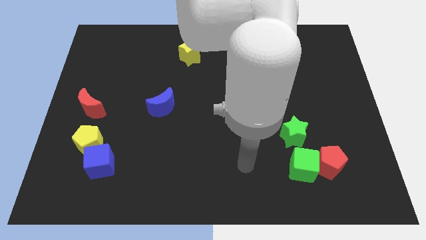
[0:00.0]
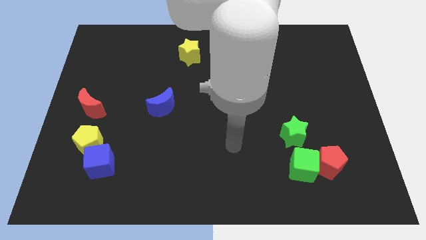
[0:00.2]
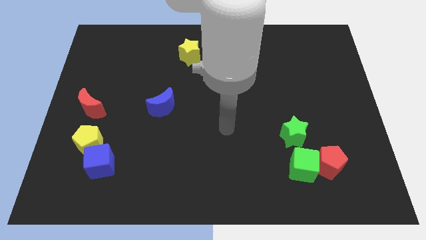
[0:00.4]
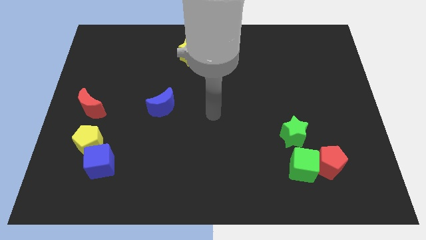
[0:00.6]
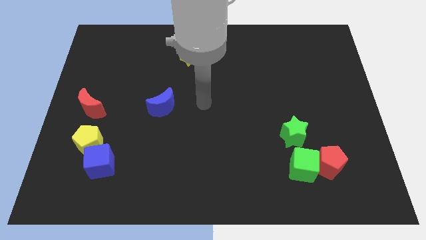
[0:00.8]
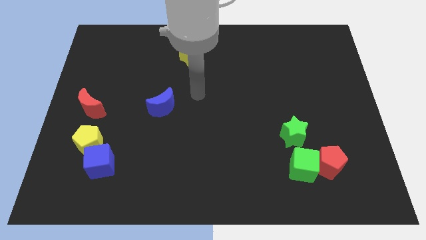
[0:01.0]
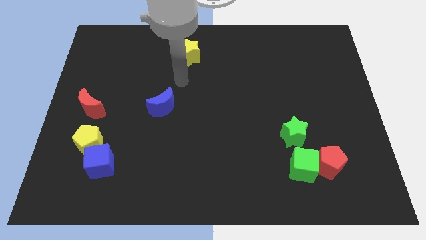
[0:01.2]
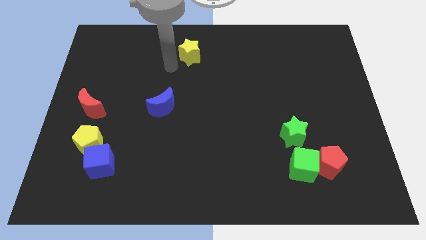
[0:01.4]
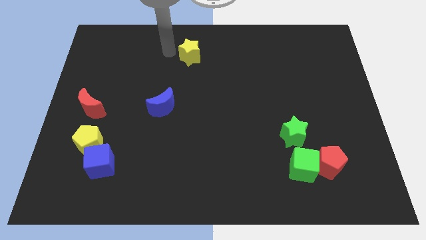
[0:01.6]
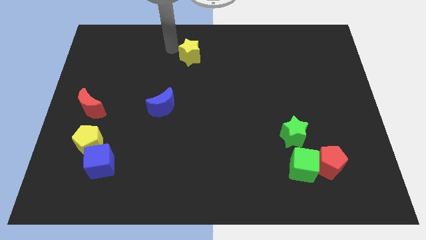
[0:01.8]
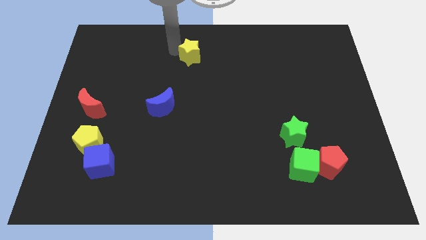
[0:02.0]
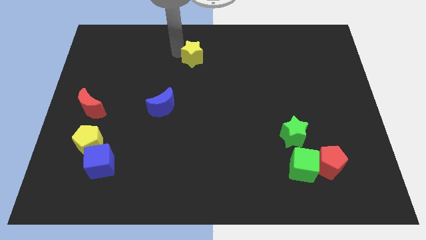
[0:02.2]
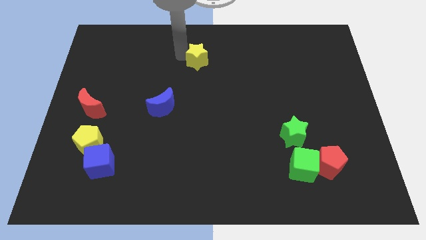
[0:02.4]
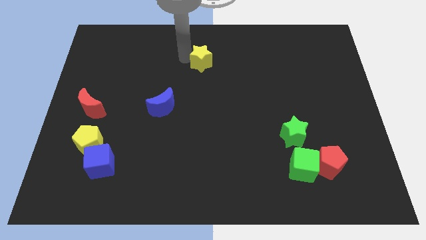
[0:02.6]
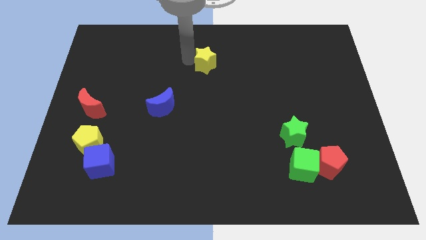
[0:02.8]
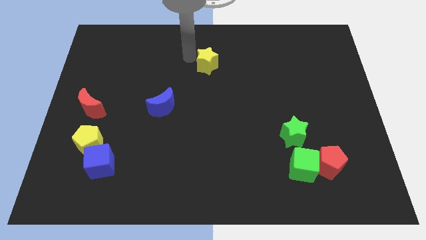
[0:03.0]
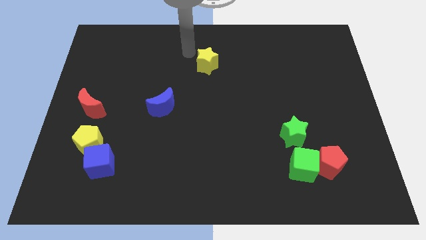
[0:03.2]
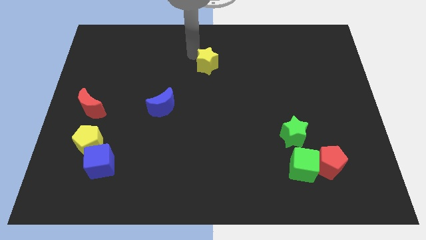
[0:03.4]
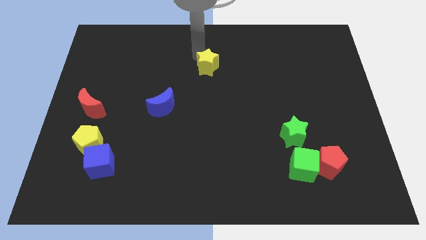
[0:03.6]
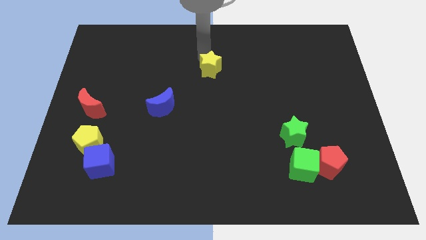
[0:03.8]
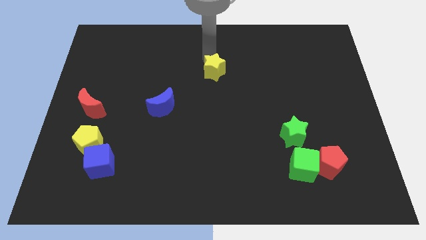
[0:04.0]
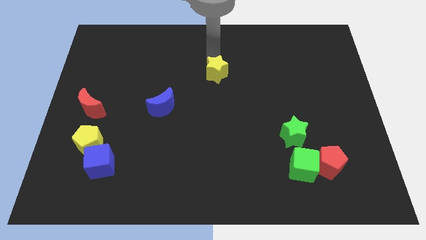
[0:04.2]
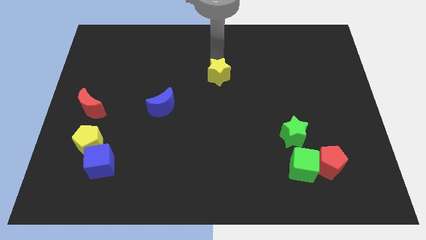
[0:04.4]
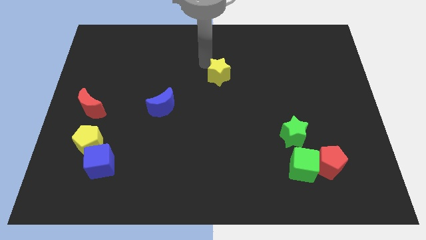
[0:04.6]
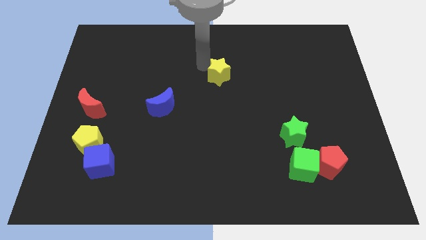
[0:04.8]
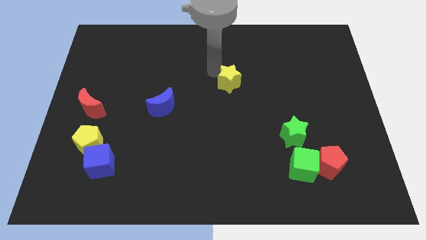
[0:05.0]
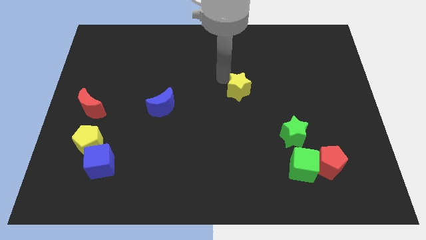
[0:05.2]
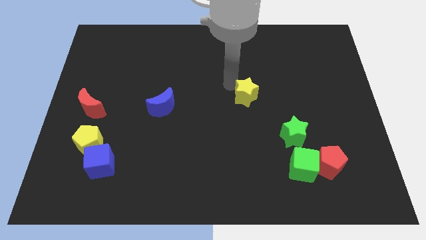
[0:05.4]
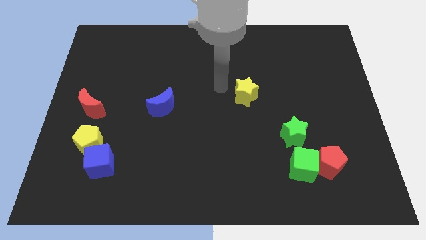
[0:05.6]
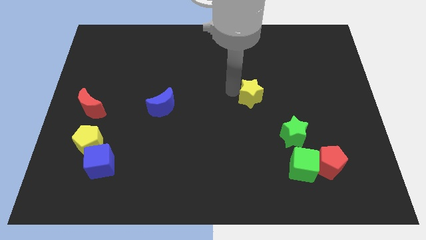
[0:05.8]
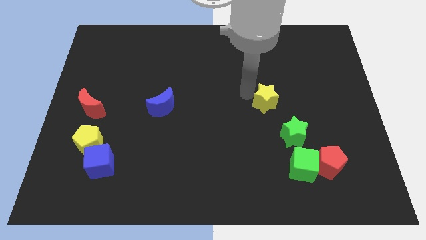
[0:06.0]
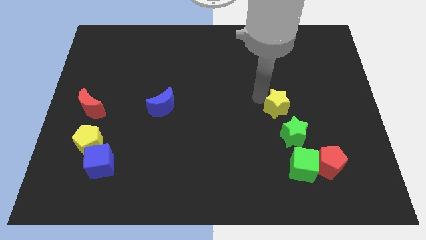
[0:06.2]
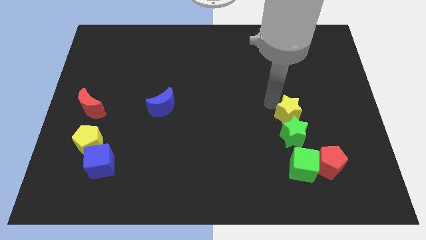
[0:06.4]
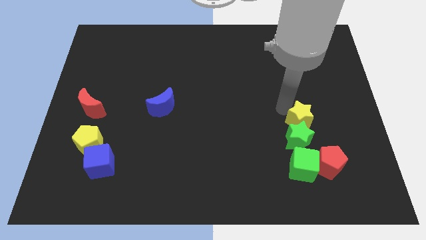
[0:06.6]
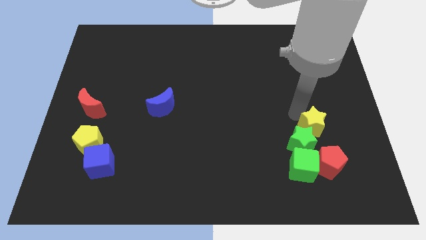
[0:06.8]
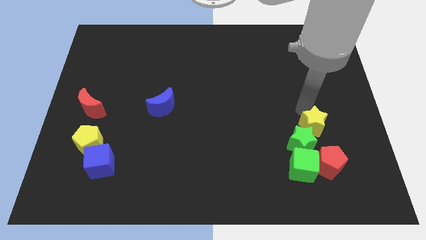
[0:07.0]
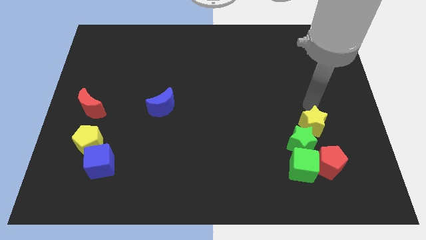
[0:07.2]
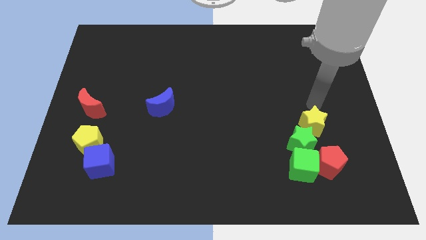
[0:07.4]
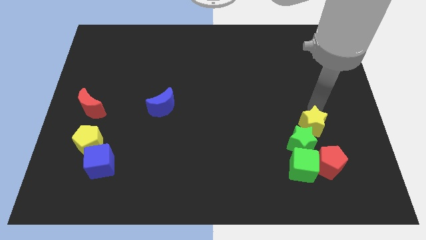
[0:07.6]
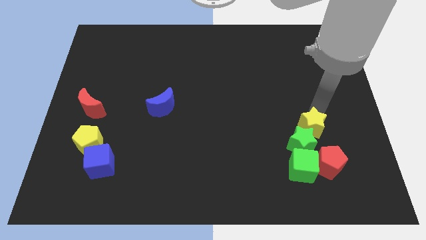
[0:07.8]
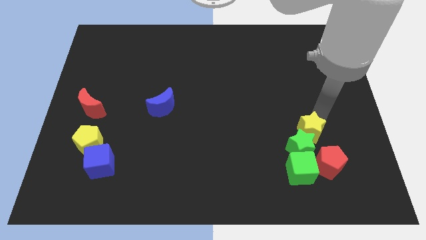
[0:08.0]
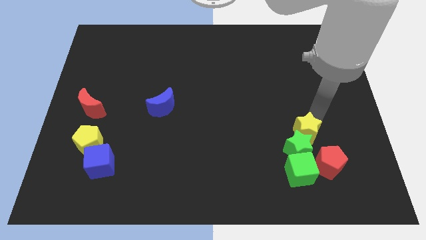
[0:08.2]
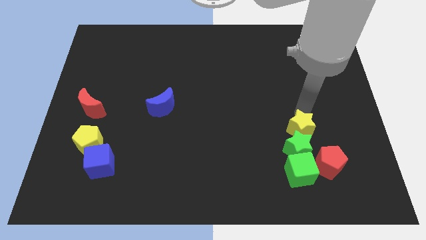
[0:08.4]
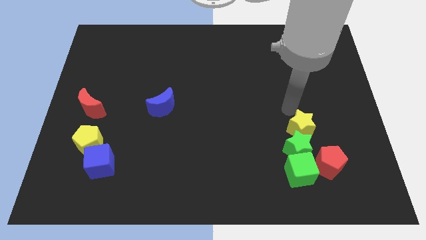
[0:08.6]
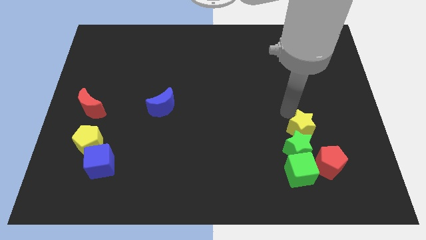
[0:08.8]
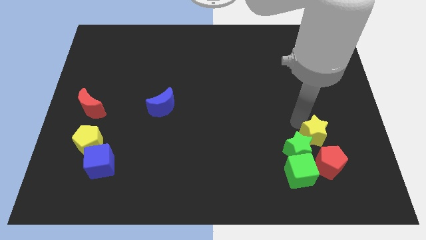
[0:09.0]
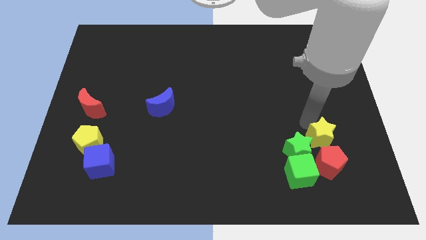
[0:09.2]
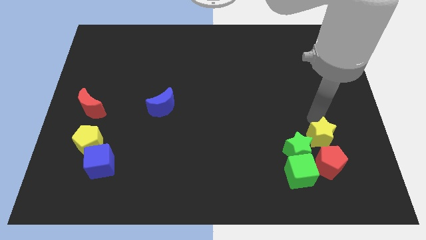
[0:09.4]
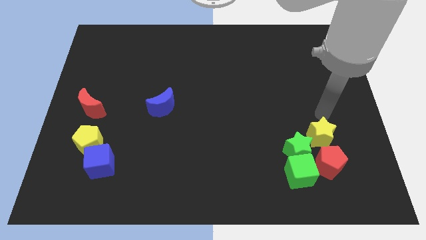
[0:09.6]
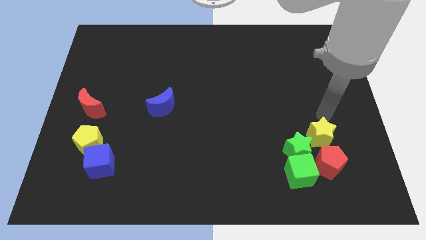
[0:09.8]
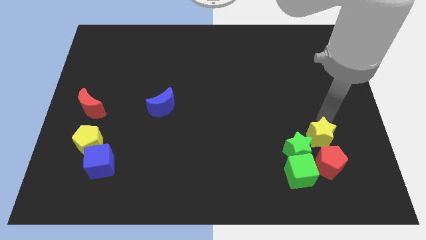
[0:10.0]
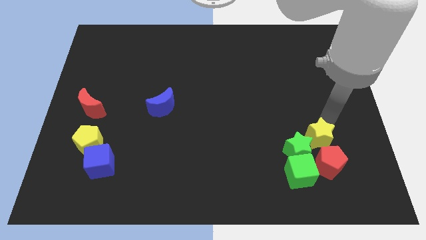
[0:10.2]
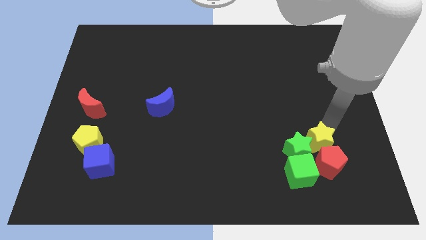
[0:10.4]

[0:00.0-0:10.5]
put the yellow star close to the red pentagon

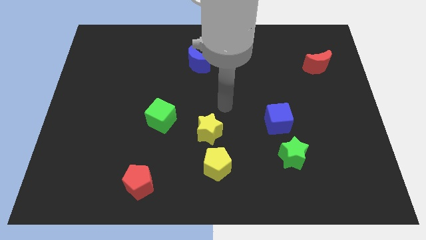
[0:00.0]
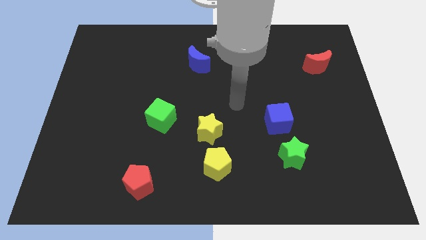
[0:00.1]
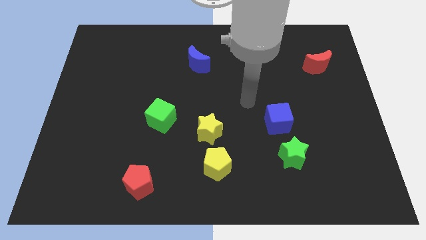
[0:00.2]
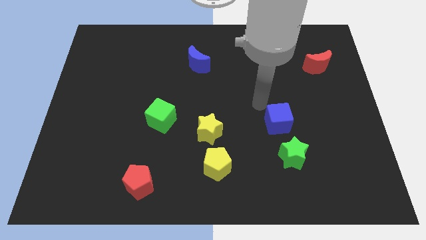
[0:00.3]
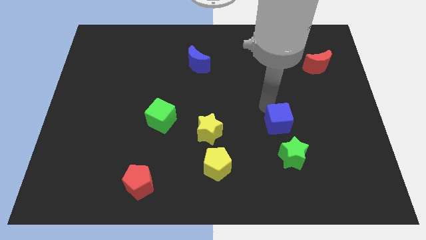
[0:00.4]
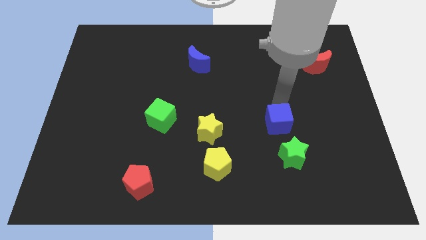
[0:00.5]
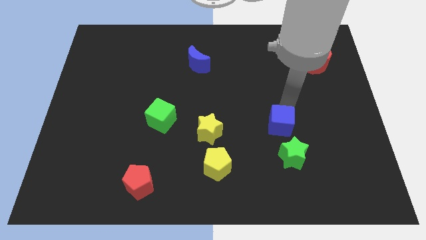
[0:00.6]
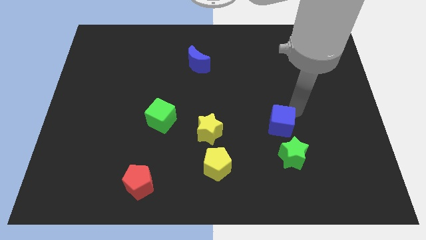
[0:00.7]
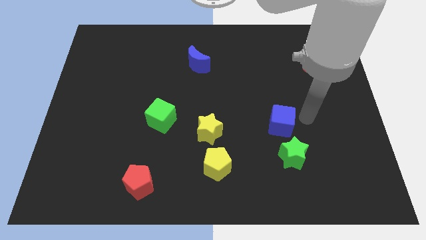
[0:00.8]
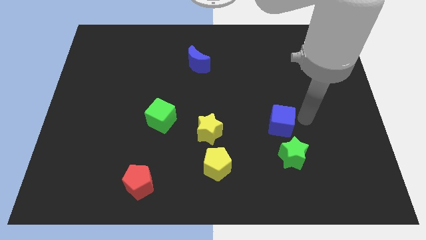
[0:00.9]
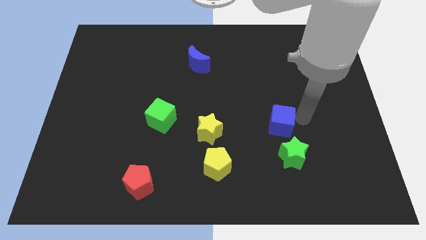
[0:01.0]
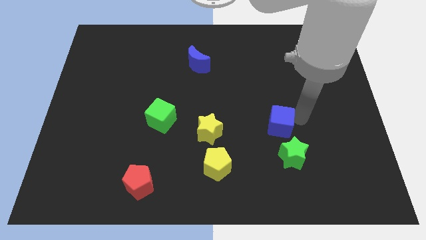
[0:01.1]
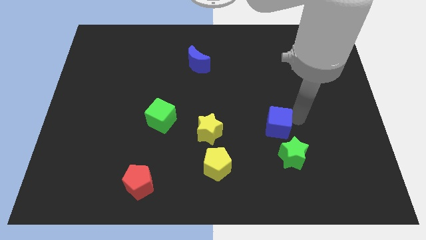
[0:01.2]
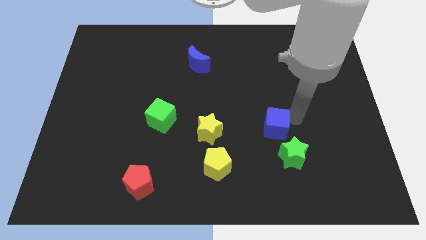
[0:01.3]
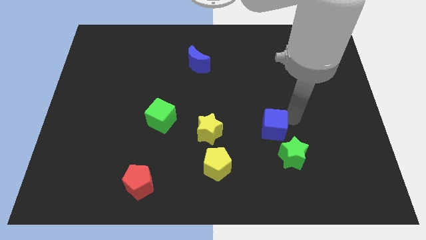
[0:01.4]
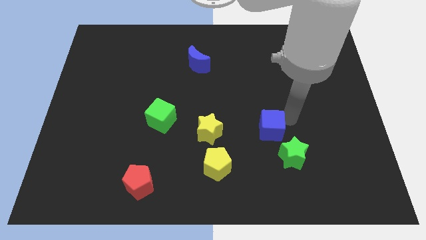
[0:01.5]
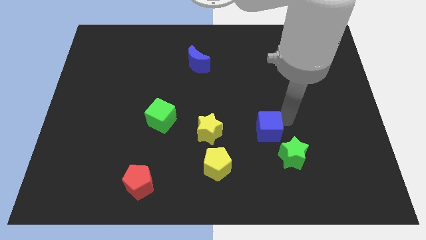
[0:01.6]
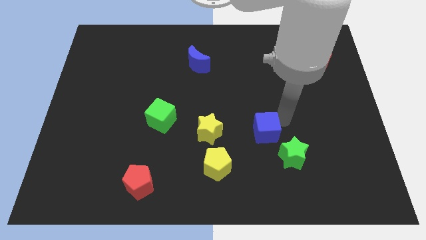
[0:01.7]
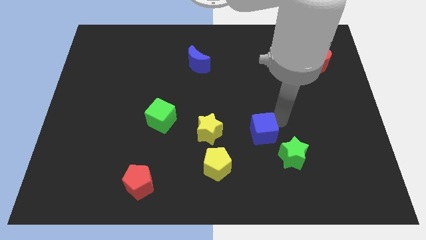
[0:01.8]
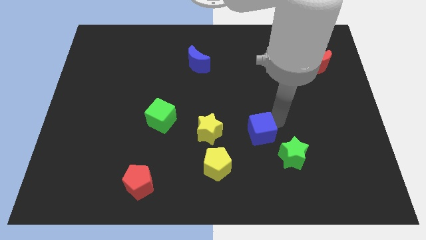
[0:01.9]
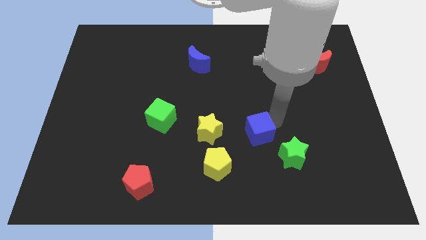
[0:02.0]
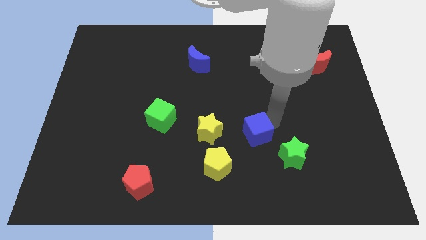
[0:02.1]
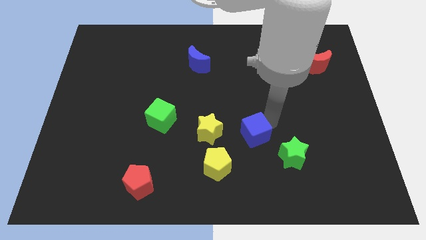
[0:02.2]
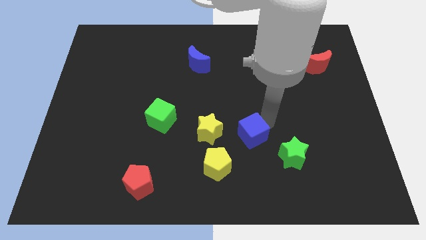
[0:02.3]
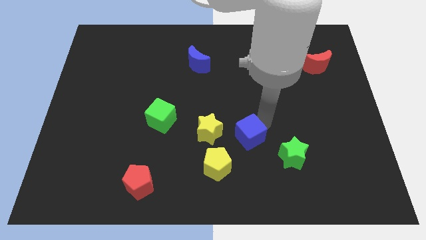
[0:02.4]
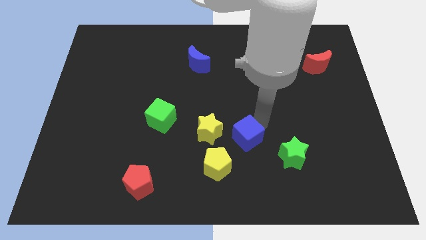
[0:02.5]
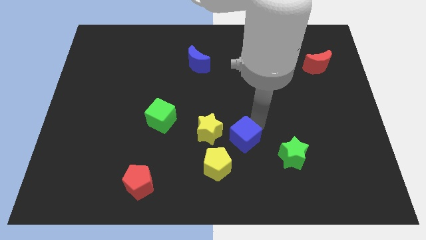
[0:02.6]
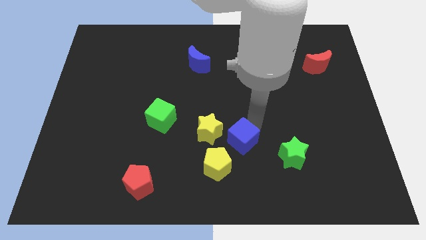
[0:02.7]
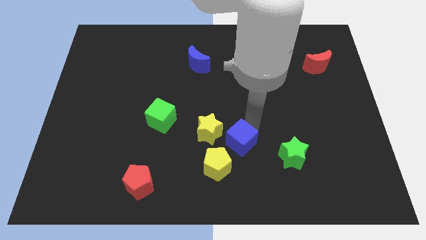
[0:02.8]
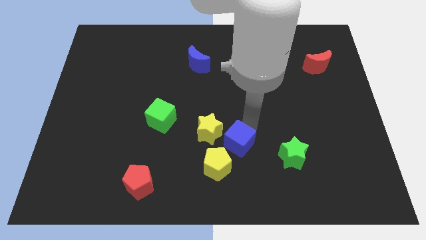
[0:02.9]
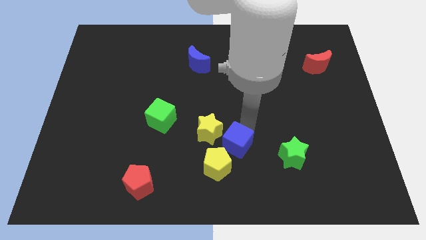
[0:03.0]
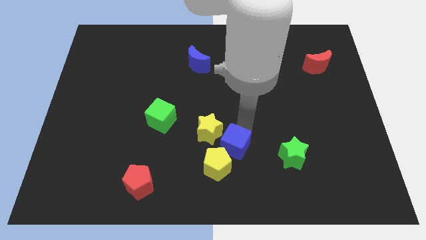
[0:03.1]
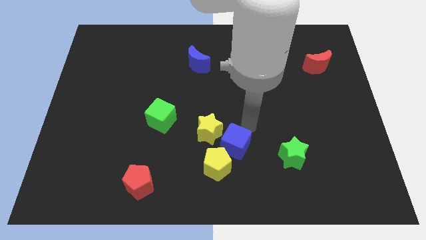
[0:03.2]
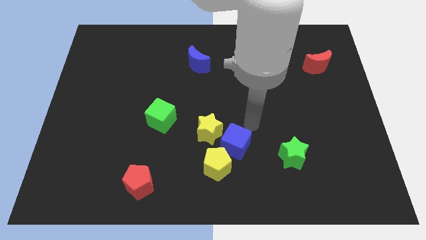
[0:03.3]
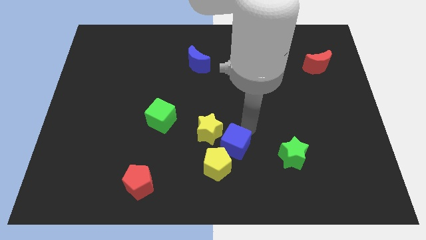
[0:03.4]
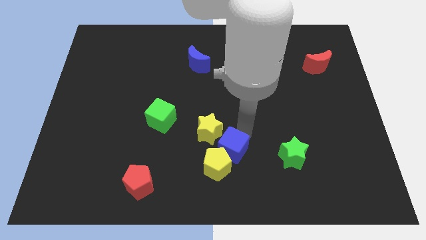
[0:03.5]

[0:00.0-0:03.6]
push the blue cube to the yellow pentagon
